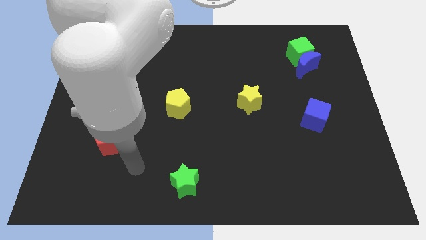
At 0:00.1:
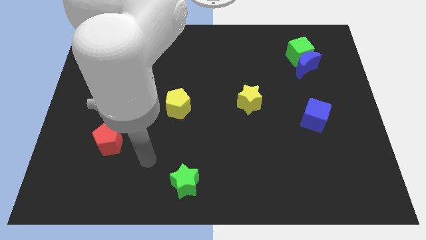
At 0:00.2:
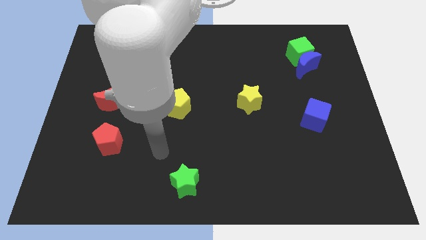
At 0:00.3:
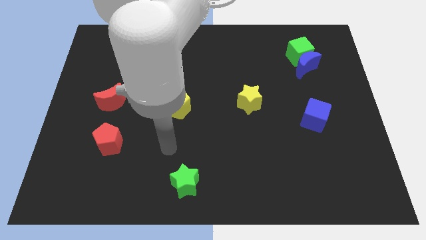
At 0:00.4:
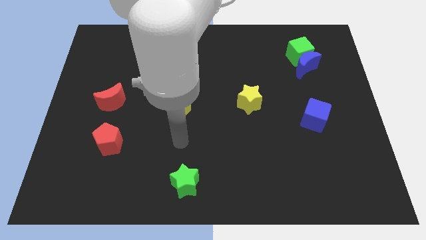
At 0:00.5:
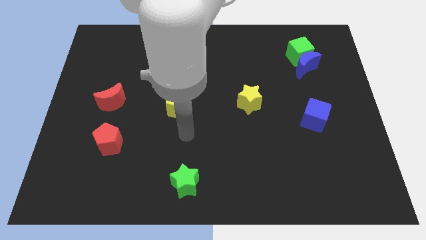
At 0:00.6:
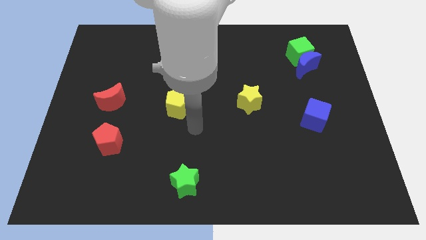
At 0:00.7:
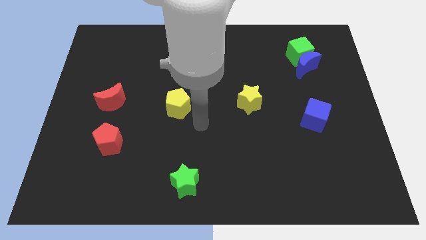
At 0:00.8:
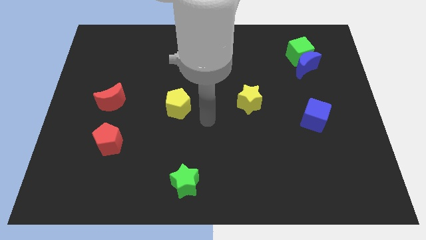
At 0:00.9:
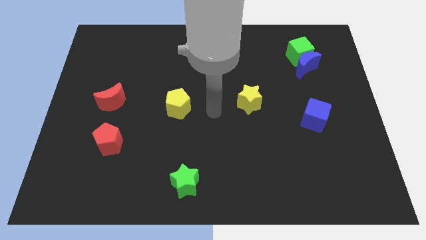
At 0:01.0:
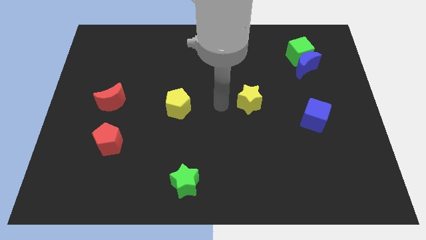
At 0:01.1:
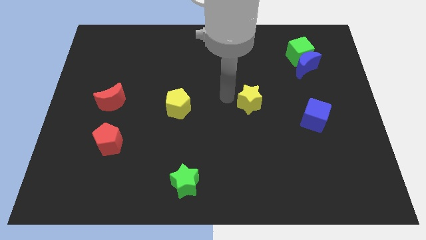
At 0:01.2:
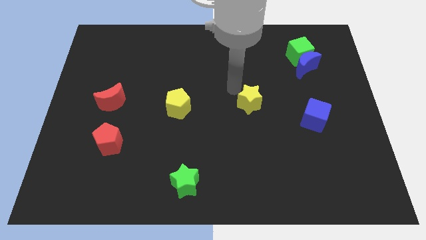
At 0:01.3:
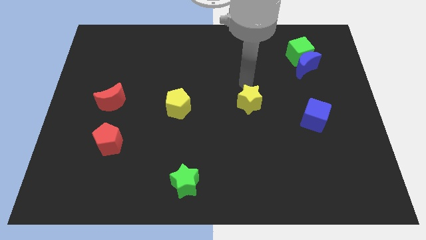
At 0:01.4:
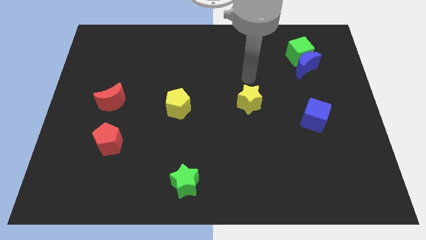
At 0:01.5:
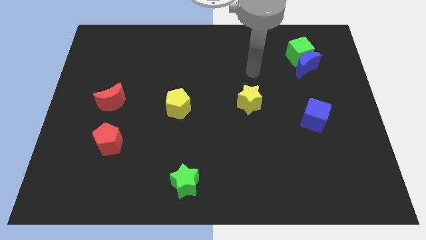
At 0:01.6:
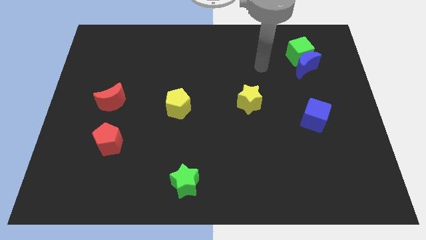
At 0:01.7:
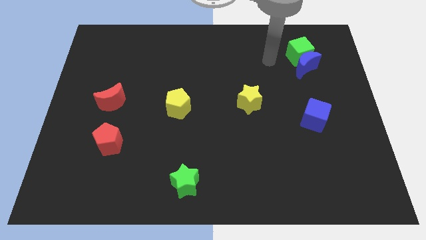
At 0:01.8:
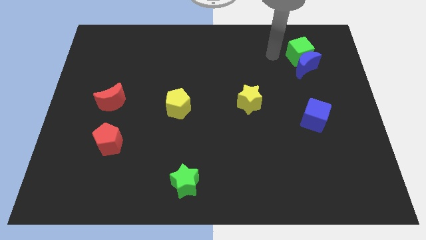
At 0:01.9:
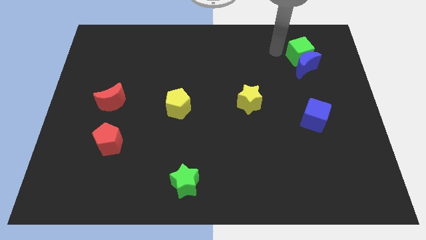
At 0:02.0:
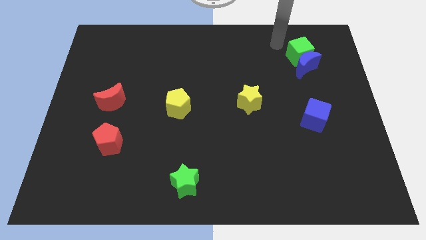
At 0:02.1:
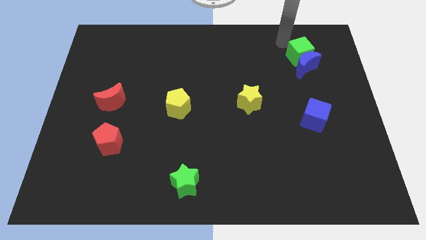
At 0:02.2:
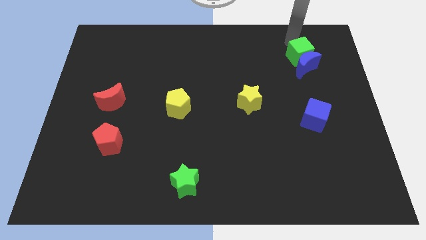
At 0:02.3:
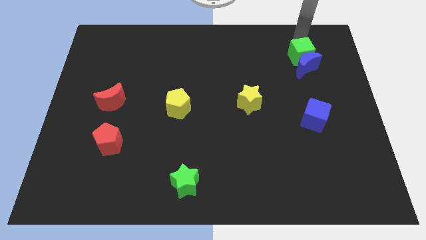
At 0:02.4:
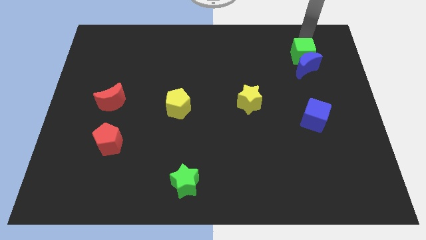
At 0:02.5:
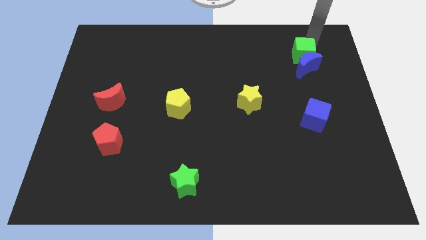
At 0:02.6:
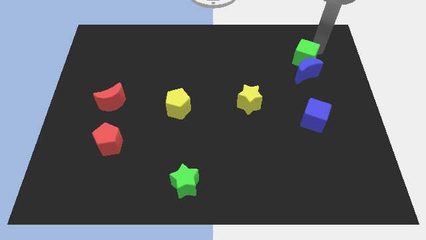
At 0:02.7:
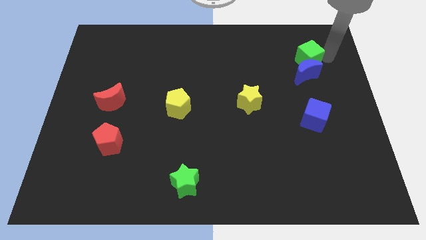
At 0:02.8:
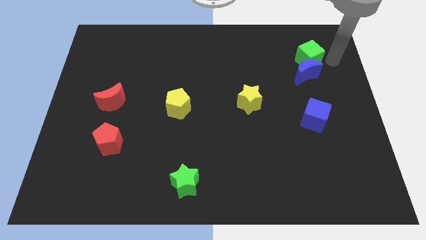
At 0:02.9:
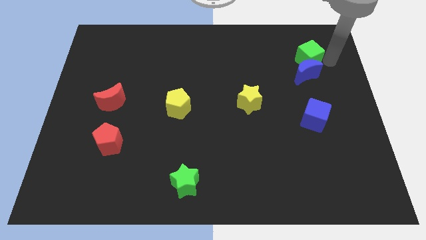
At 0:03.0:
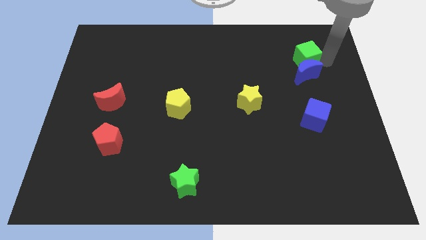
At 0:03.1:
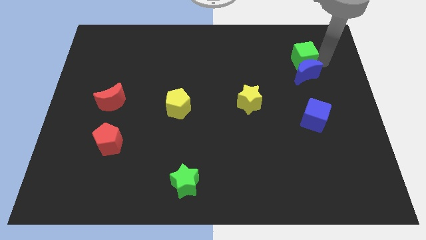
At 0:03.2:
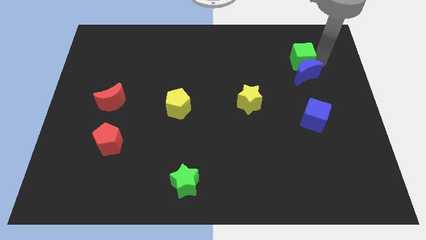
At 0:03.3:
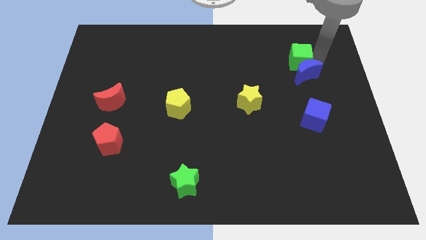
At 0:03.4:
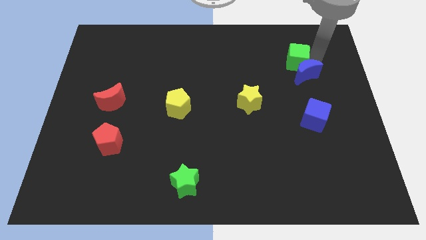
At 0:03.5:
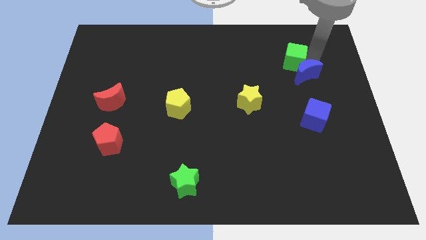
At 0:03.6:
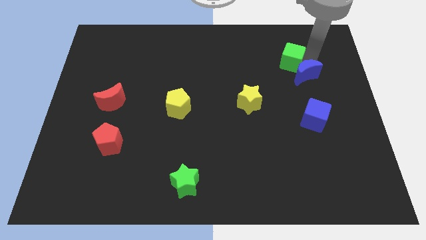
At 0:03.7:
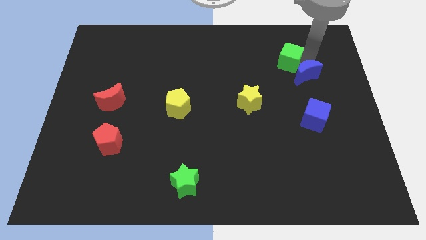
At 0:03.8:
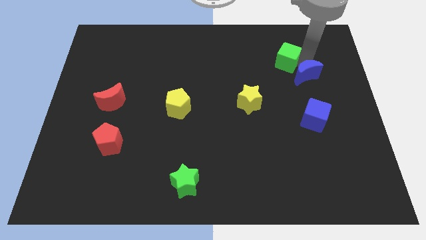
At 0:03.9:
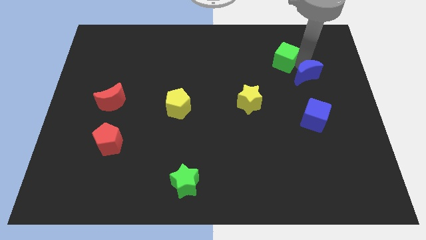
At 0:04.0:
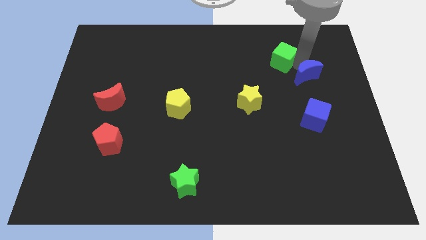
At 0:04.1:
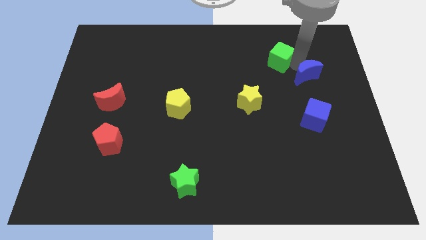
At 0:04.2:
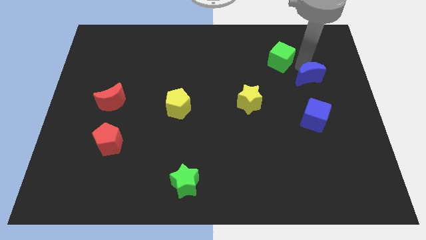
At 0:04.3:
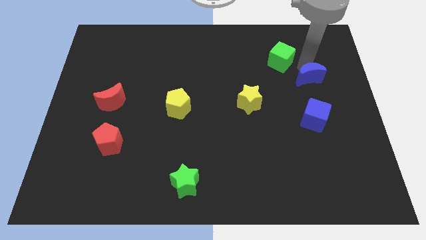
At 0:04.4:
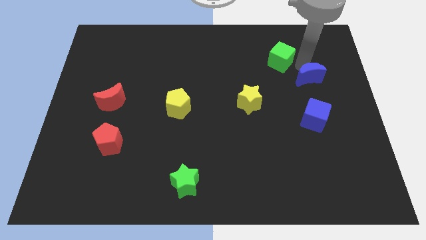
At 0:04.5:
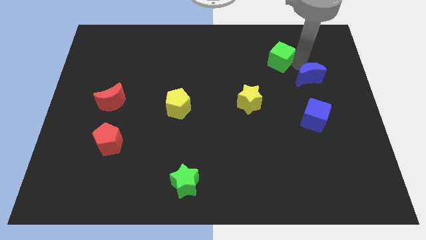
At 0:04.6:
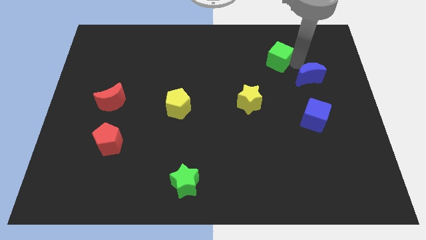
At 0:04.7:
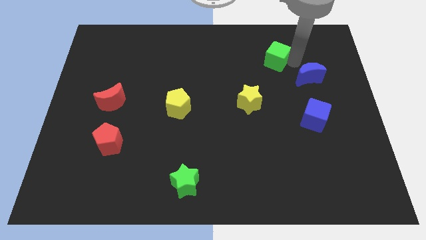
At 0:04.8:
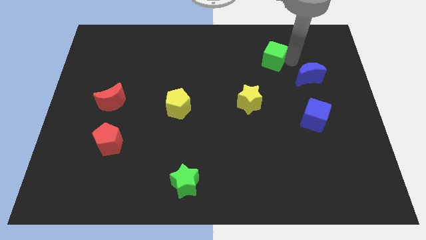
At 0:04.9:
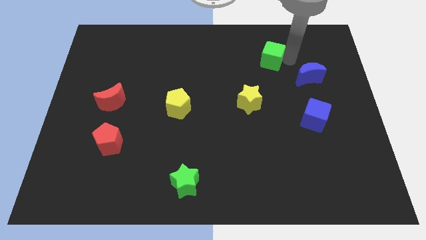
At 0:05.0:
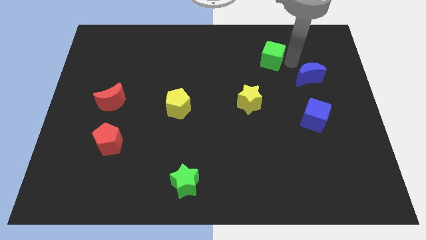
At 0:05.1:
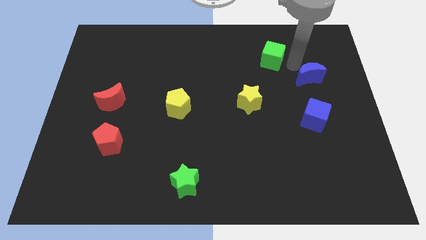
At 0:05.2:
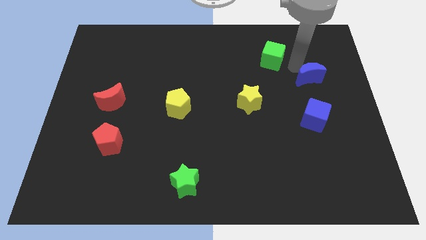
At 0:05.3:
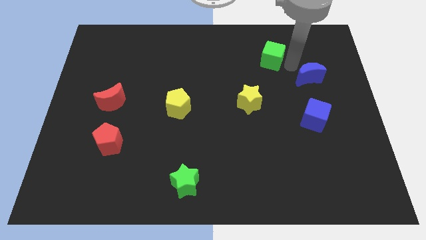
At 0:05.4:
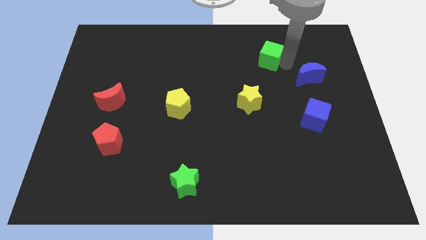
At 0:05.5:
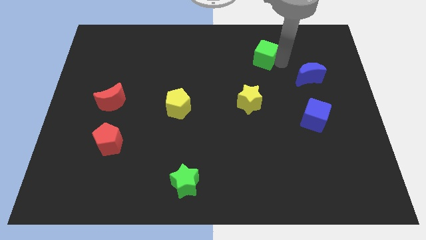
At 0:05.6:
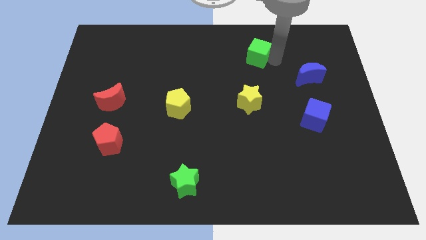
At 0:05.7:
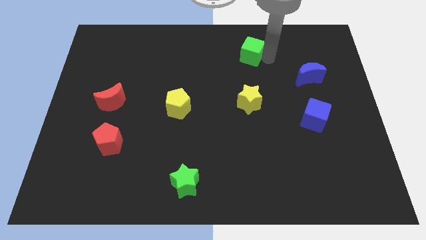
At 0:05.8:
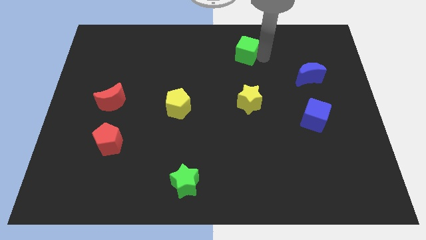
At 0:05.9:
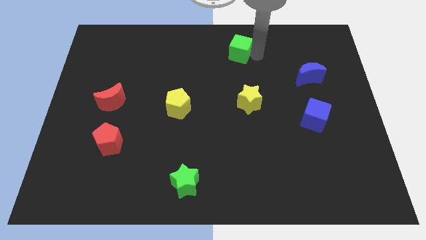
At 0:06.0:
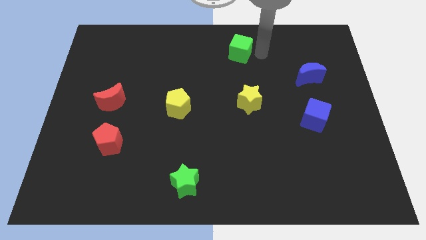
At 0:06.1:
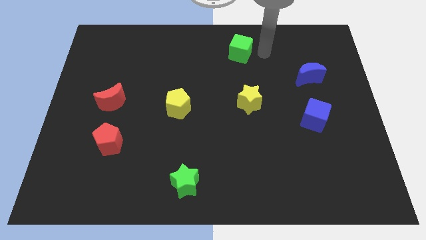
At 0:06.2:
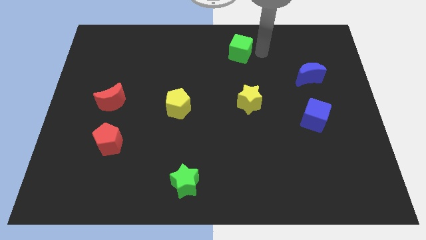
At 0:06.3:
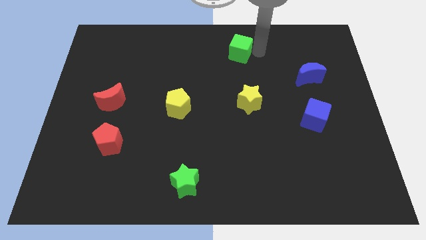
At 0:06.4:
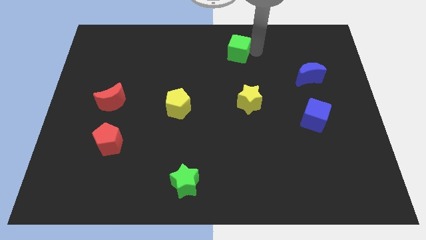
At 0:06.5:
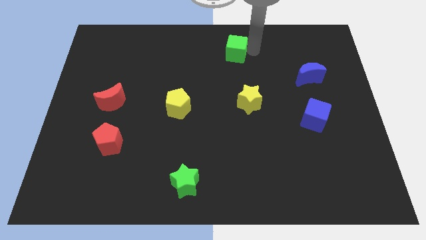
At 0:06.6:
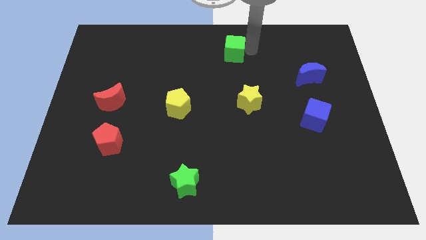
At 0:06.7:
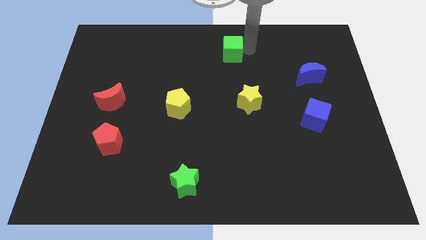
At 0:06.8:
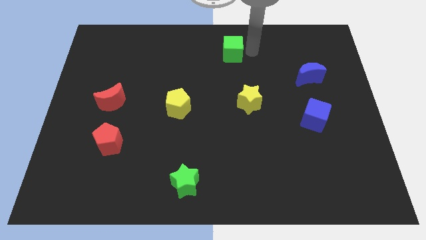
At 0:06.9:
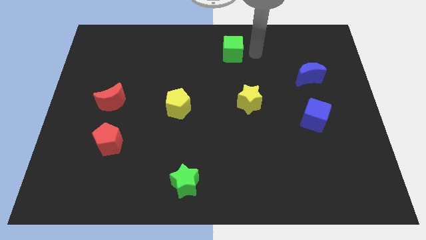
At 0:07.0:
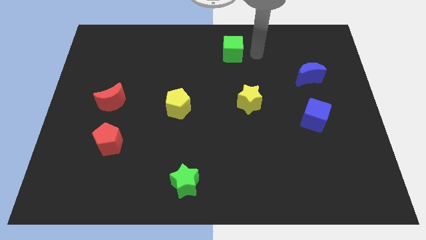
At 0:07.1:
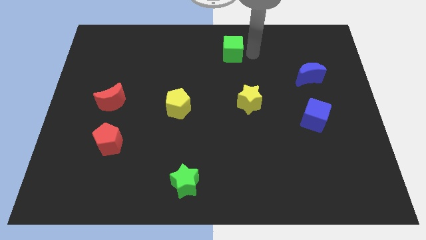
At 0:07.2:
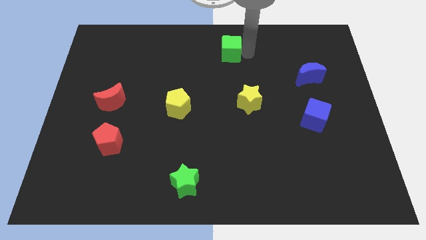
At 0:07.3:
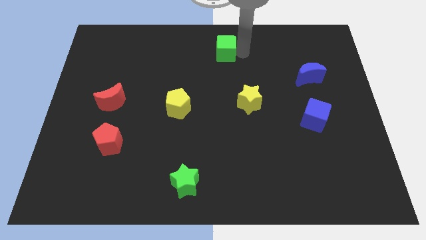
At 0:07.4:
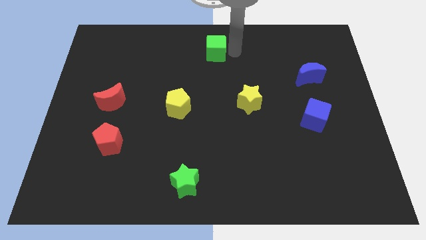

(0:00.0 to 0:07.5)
slide the green cube left

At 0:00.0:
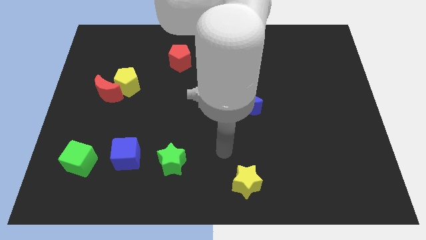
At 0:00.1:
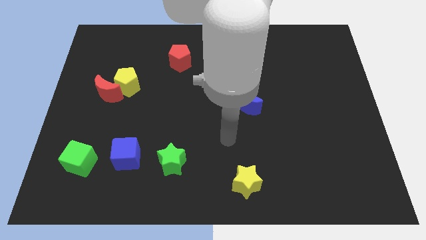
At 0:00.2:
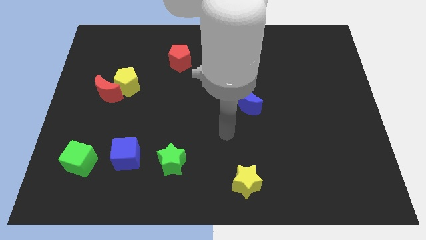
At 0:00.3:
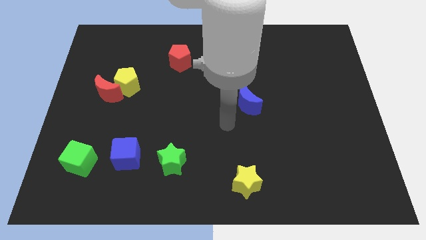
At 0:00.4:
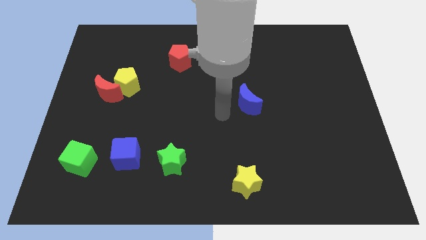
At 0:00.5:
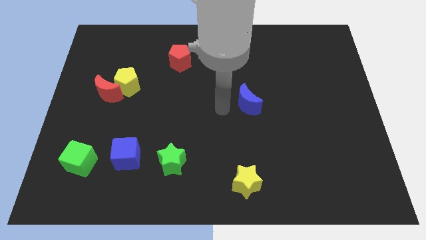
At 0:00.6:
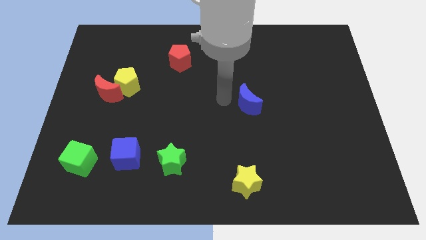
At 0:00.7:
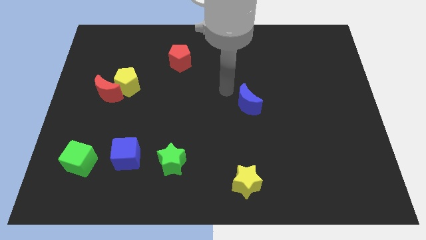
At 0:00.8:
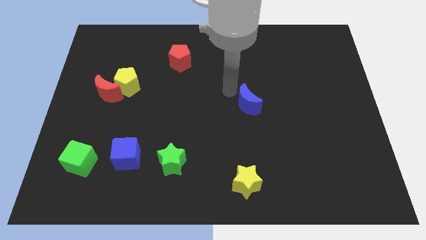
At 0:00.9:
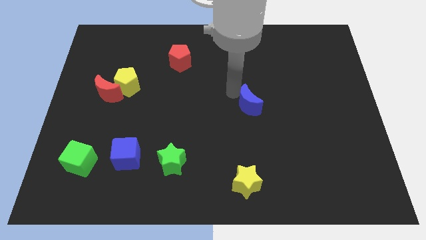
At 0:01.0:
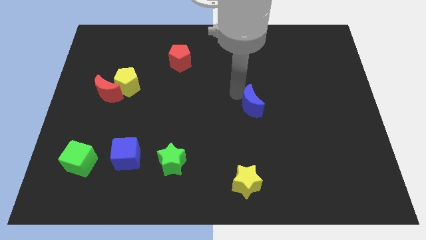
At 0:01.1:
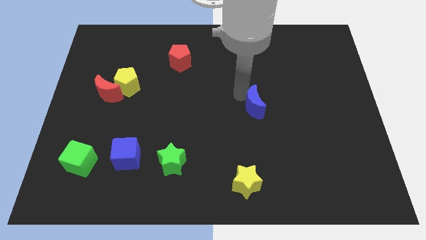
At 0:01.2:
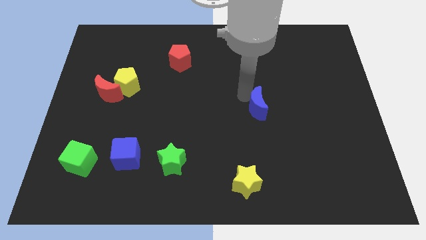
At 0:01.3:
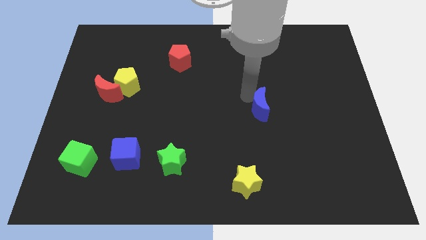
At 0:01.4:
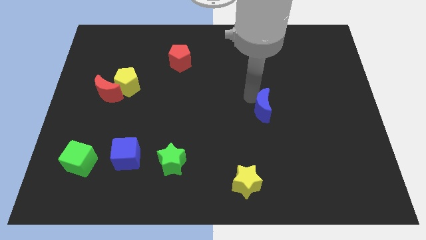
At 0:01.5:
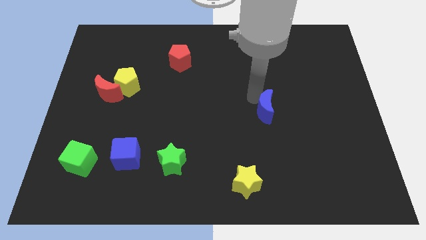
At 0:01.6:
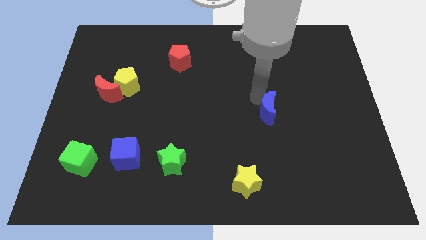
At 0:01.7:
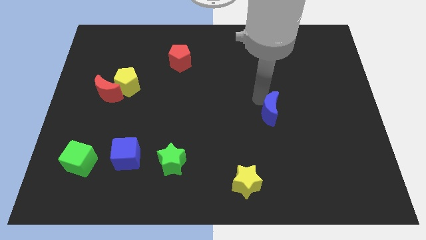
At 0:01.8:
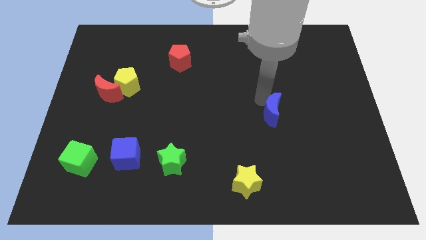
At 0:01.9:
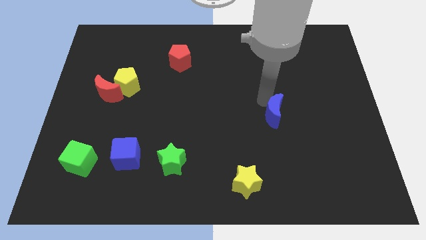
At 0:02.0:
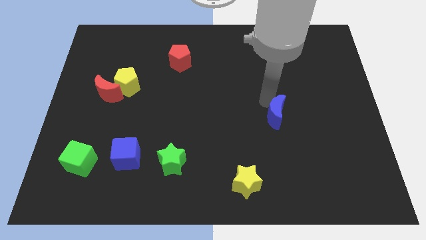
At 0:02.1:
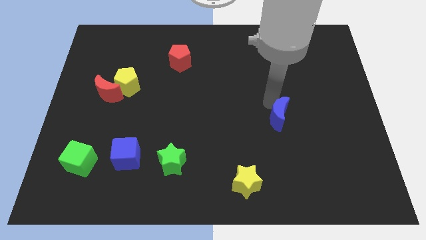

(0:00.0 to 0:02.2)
slightly push the blue moon diagonally downwards and to the right
